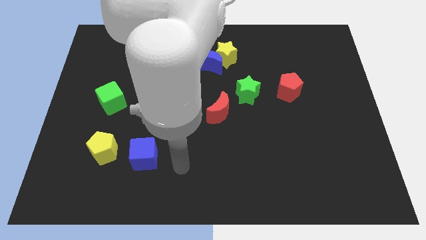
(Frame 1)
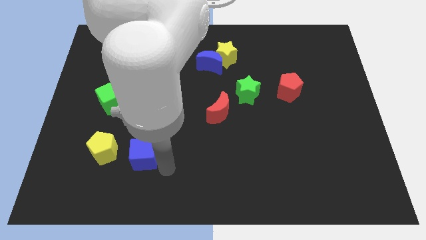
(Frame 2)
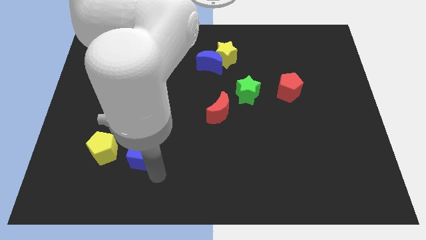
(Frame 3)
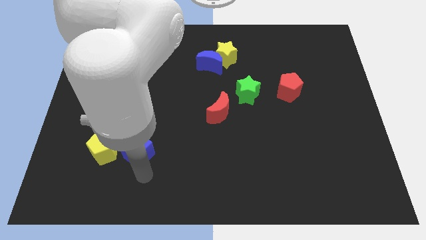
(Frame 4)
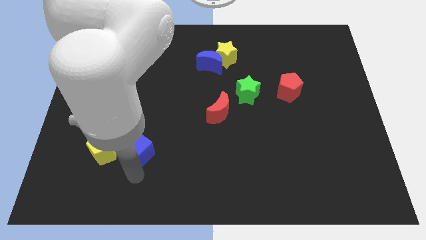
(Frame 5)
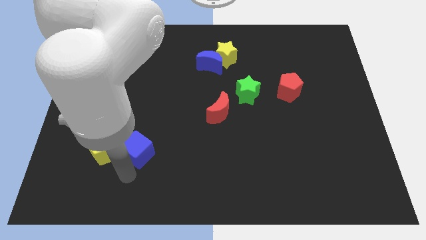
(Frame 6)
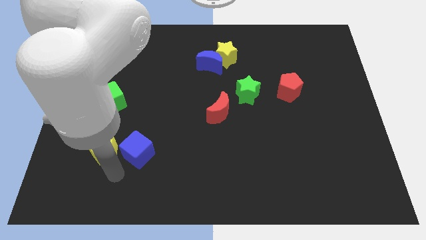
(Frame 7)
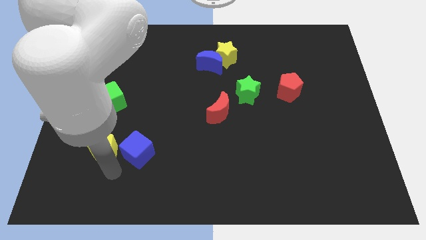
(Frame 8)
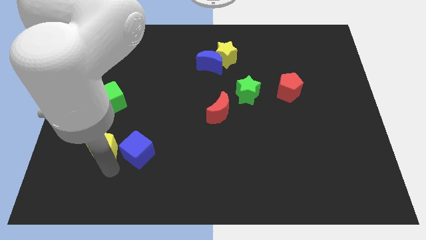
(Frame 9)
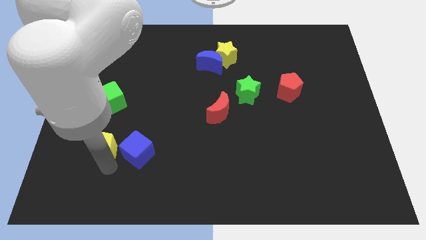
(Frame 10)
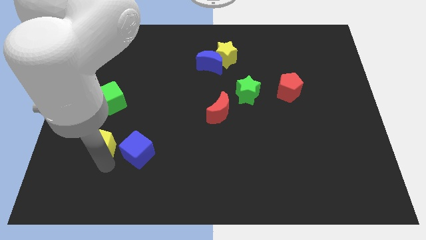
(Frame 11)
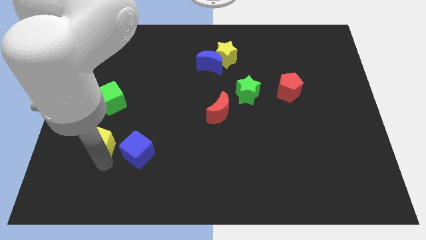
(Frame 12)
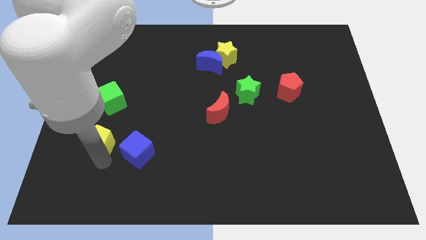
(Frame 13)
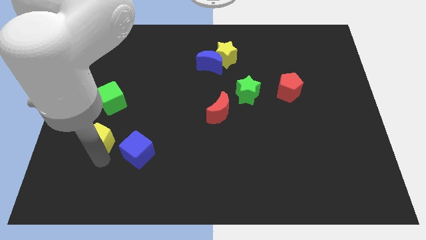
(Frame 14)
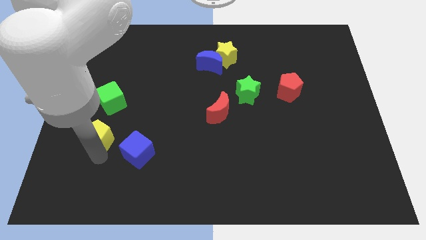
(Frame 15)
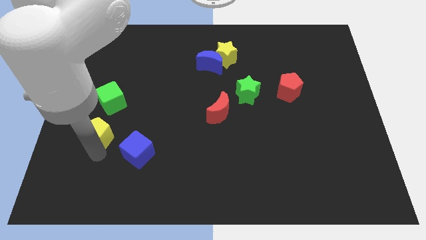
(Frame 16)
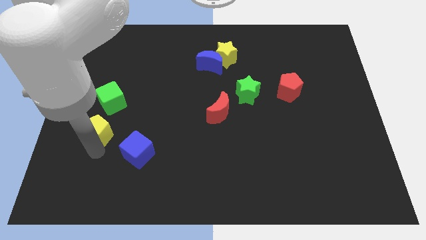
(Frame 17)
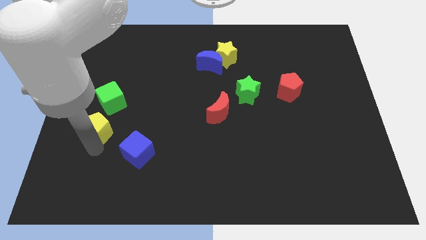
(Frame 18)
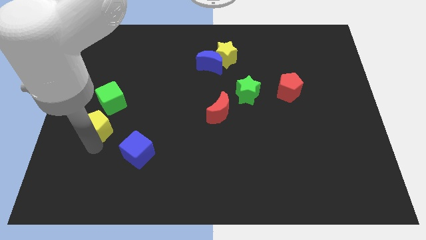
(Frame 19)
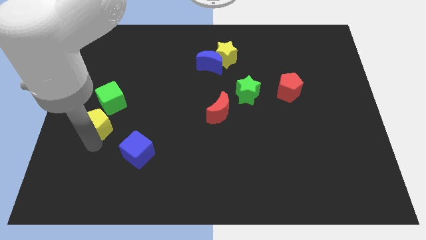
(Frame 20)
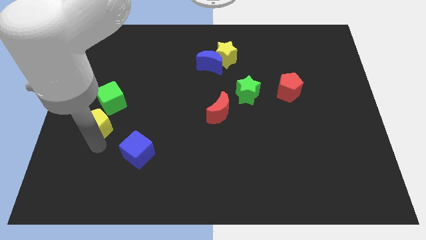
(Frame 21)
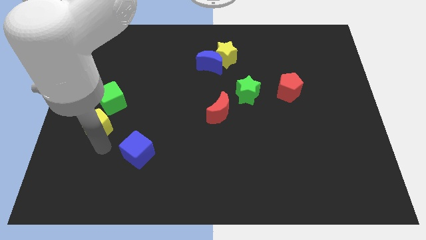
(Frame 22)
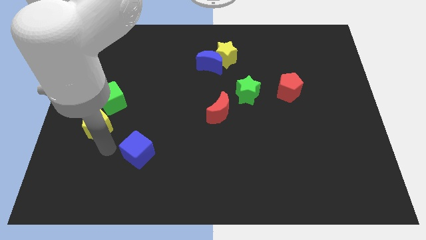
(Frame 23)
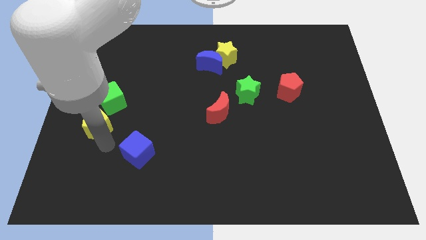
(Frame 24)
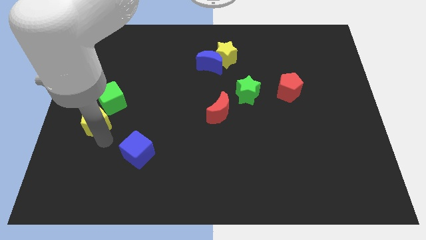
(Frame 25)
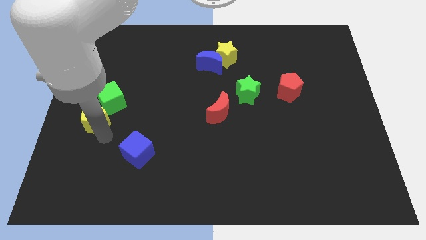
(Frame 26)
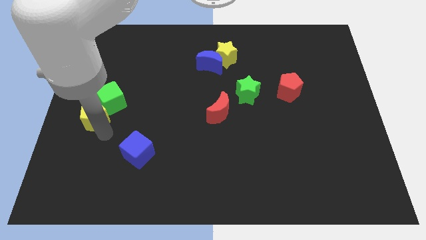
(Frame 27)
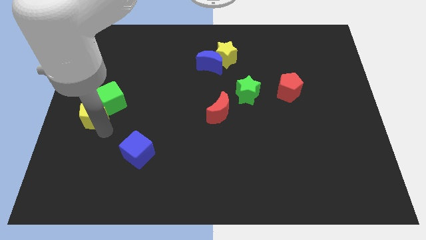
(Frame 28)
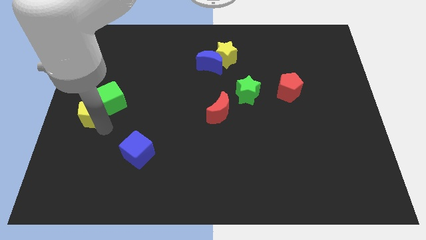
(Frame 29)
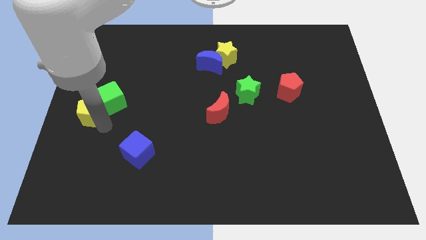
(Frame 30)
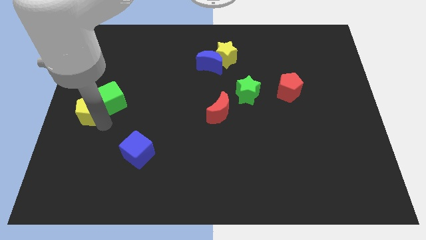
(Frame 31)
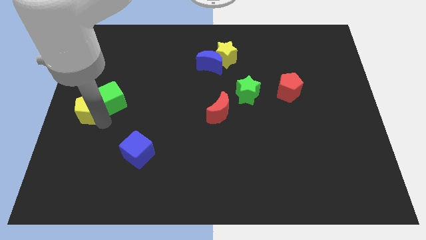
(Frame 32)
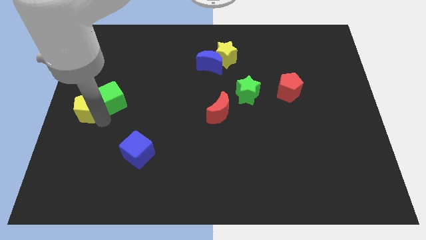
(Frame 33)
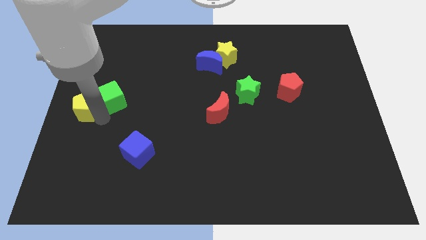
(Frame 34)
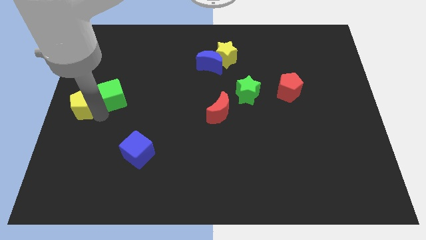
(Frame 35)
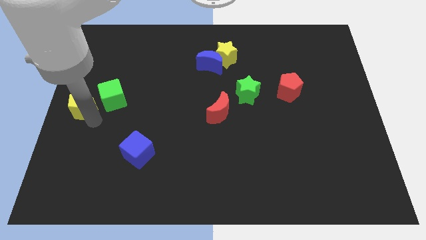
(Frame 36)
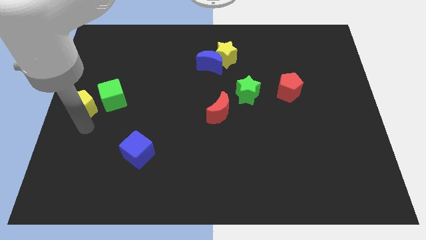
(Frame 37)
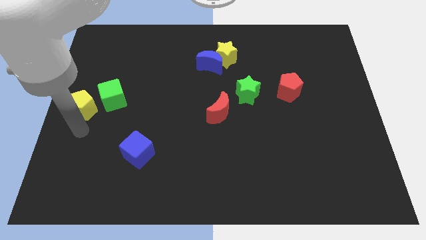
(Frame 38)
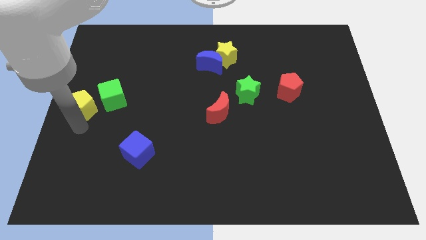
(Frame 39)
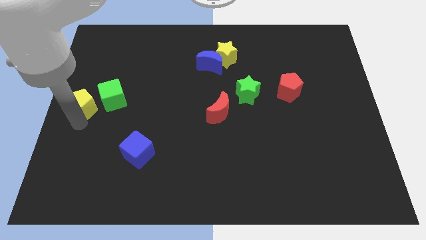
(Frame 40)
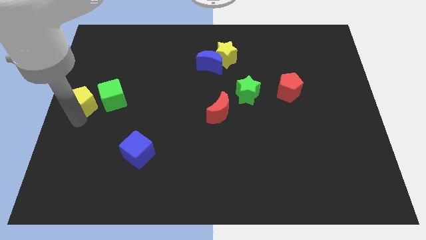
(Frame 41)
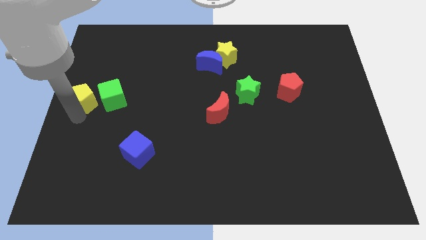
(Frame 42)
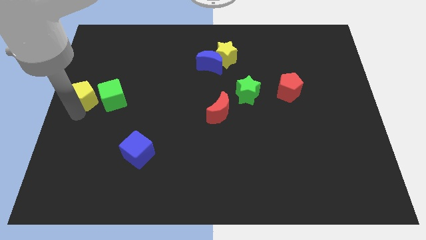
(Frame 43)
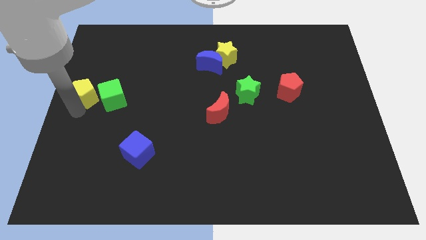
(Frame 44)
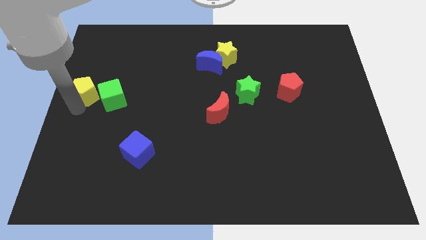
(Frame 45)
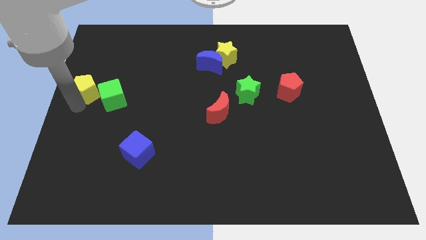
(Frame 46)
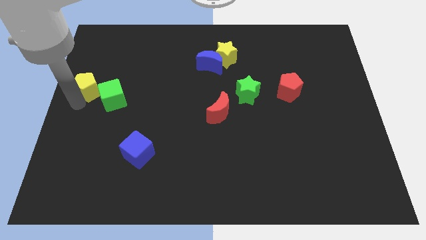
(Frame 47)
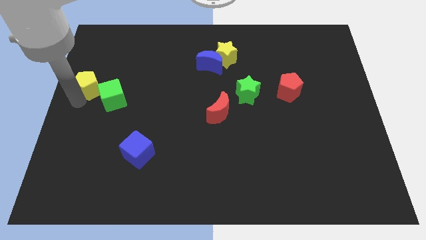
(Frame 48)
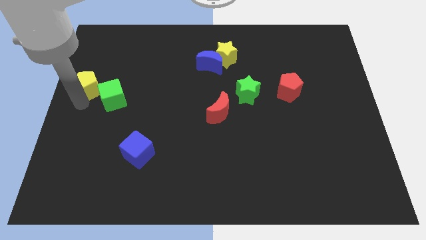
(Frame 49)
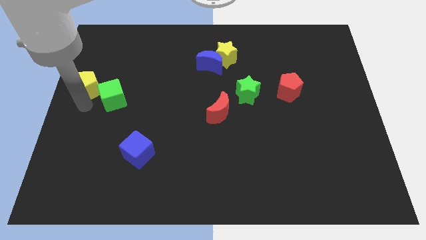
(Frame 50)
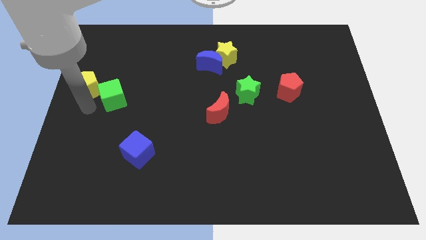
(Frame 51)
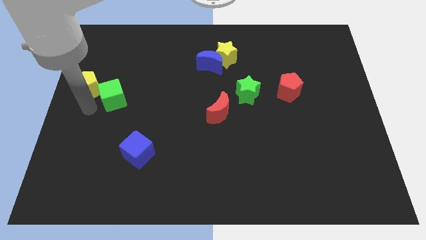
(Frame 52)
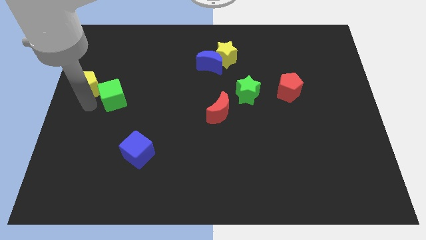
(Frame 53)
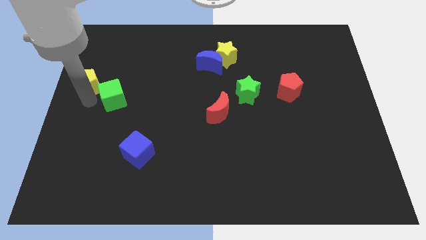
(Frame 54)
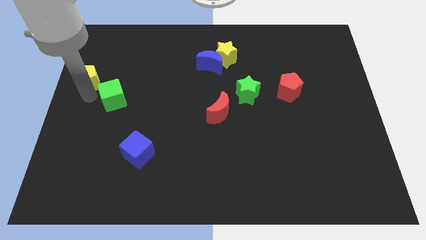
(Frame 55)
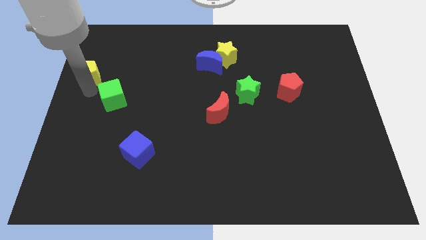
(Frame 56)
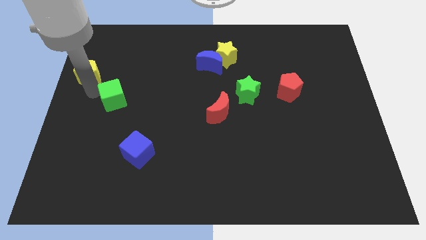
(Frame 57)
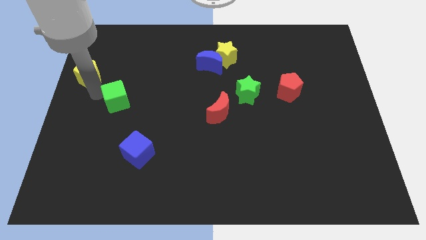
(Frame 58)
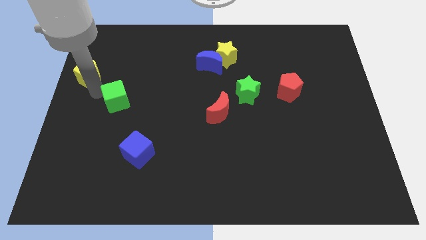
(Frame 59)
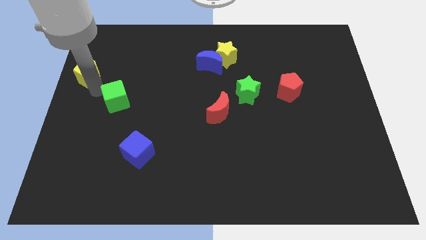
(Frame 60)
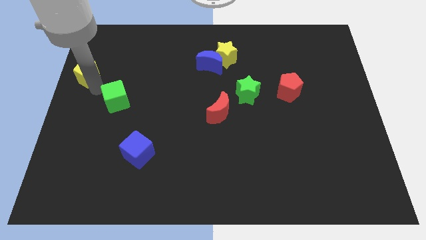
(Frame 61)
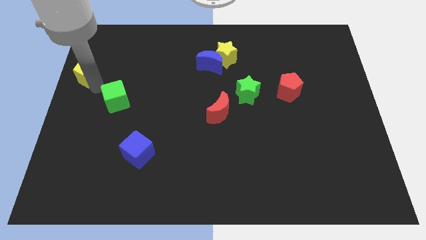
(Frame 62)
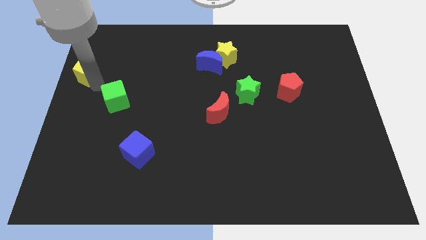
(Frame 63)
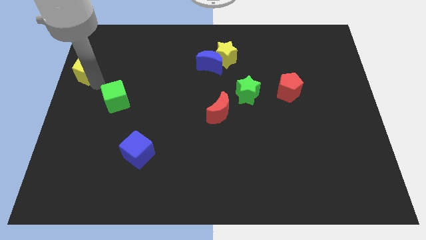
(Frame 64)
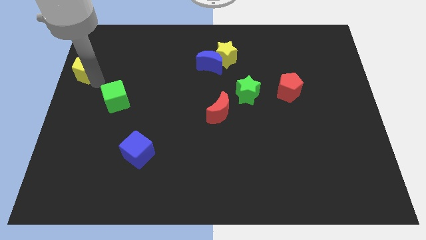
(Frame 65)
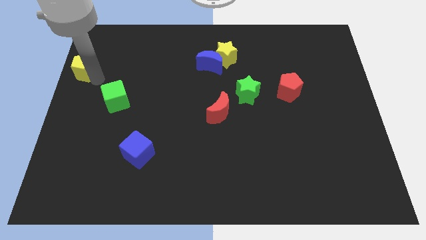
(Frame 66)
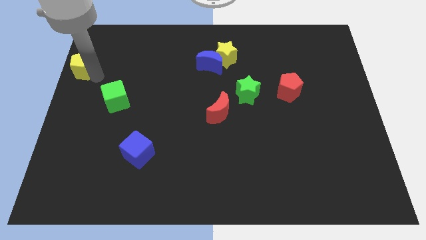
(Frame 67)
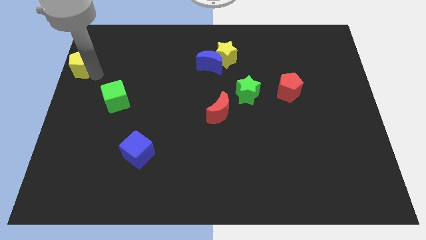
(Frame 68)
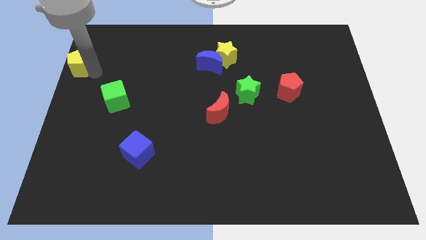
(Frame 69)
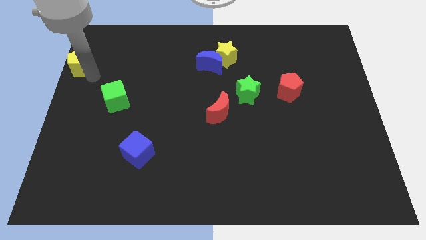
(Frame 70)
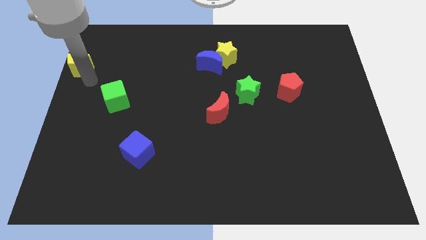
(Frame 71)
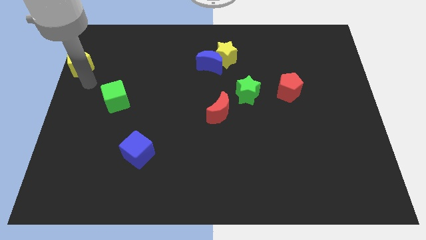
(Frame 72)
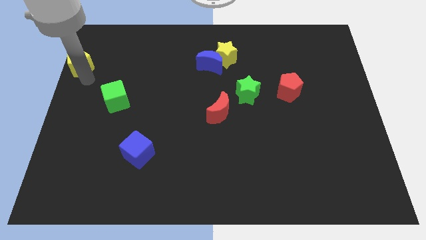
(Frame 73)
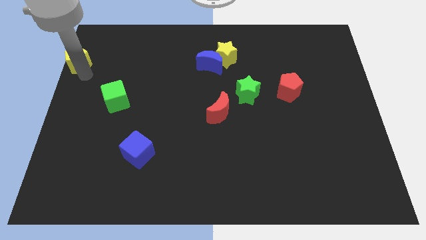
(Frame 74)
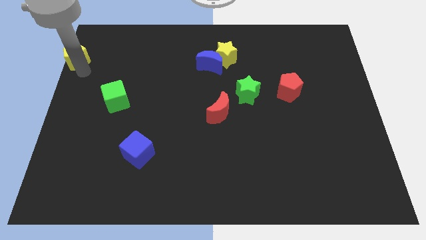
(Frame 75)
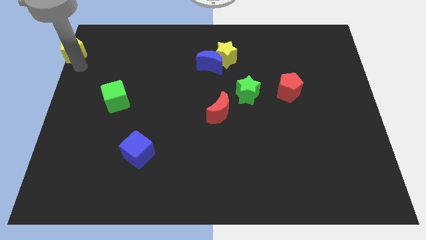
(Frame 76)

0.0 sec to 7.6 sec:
slide the yellow pentagon to the top left of the board
